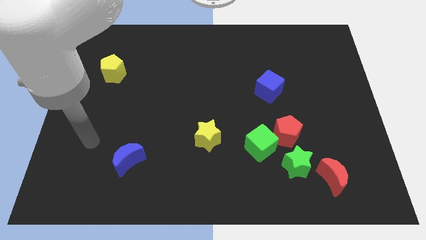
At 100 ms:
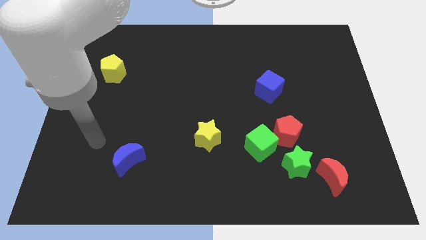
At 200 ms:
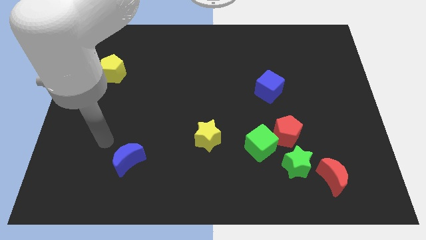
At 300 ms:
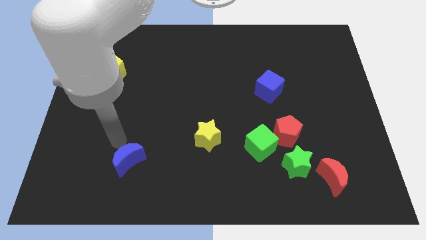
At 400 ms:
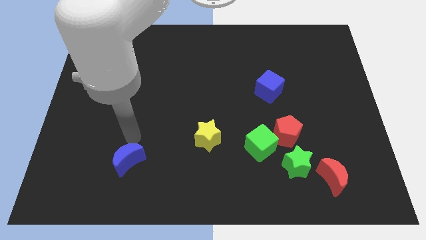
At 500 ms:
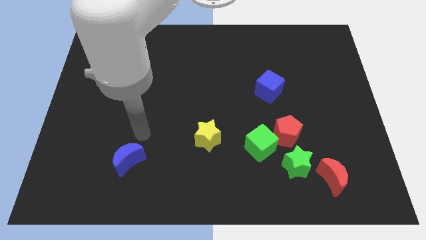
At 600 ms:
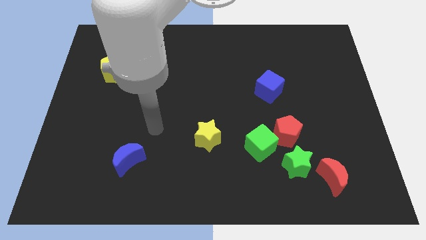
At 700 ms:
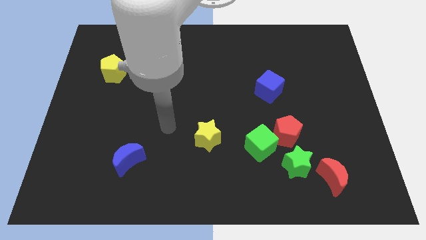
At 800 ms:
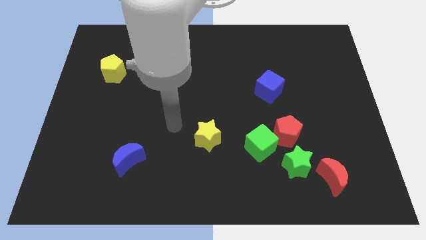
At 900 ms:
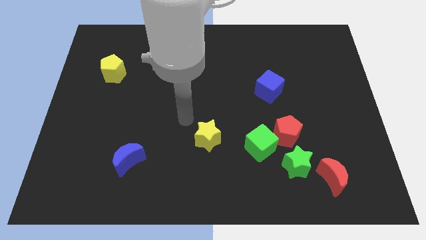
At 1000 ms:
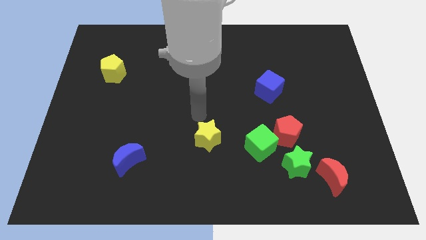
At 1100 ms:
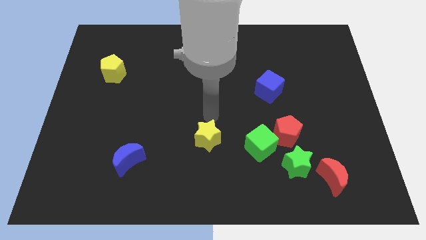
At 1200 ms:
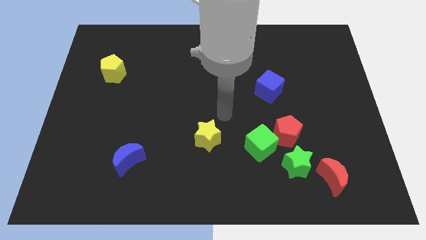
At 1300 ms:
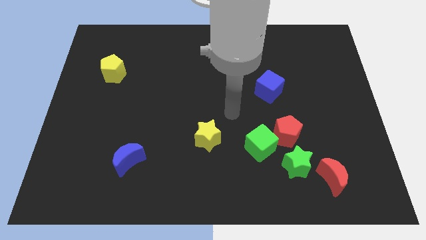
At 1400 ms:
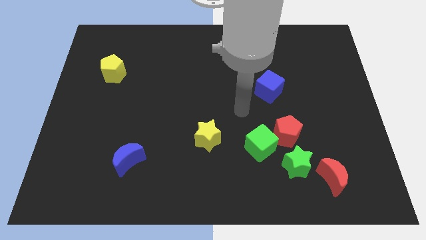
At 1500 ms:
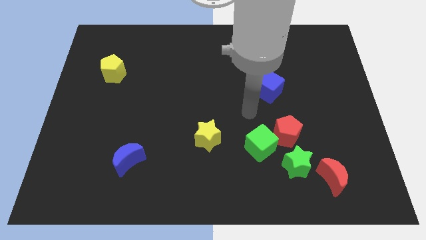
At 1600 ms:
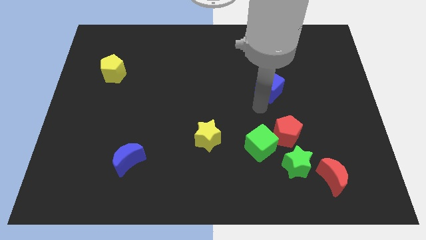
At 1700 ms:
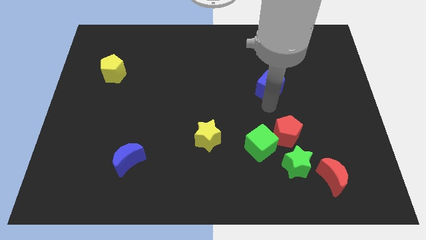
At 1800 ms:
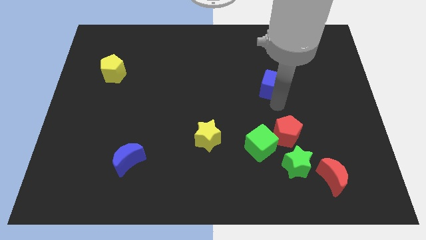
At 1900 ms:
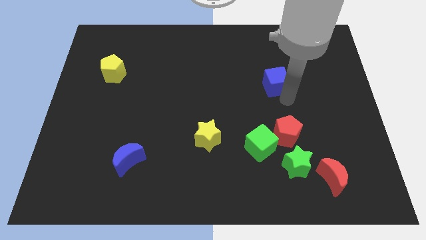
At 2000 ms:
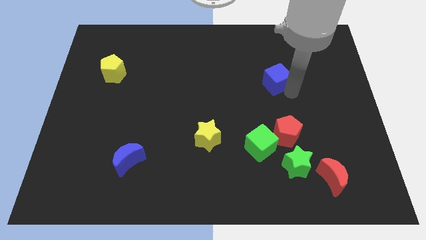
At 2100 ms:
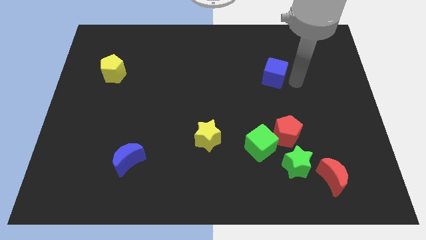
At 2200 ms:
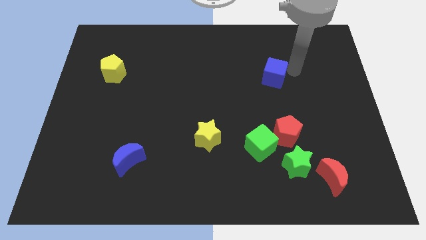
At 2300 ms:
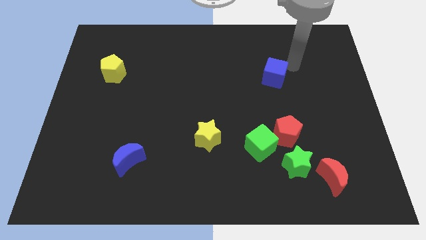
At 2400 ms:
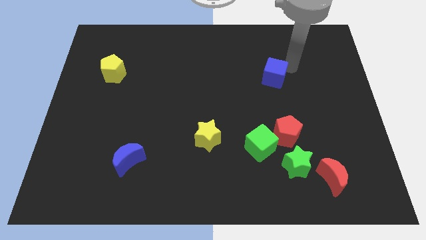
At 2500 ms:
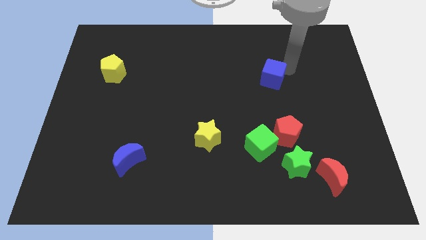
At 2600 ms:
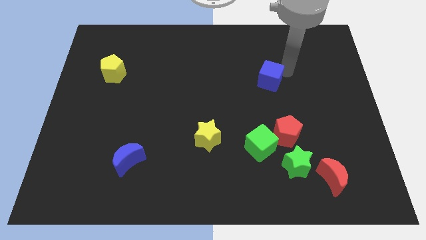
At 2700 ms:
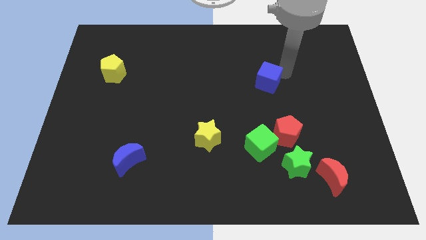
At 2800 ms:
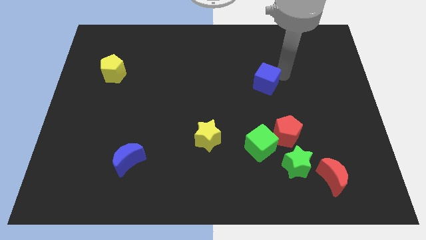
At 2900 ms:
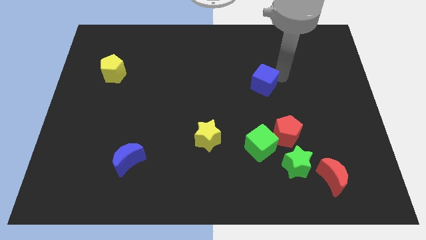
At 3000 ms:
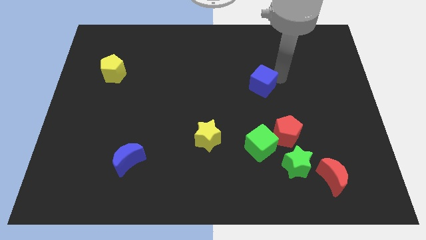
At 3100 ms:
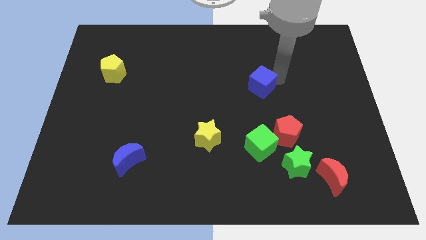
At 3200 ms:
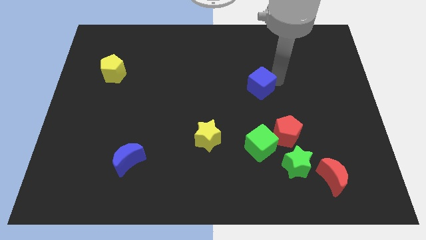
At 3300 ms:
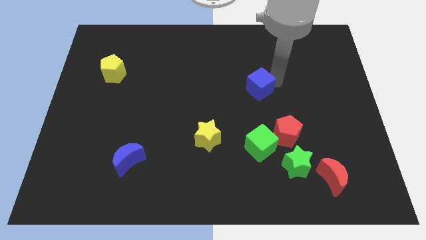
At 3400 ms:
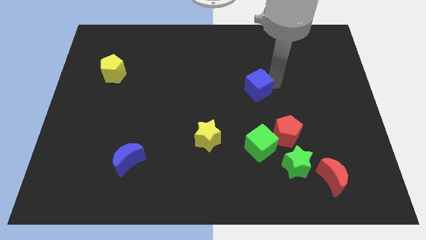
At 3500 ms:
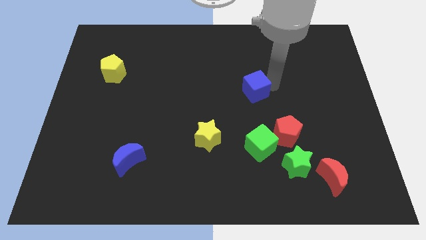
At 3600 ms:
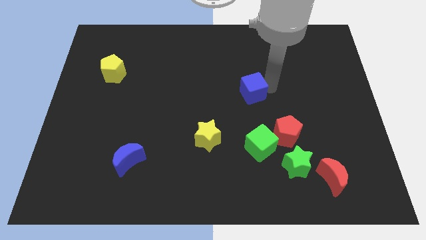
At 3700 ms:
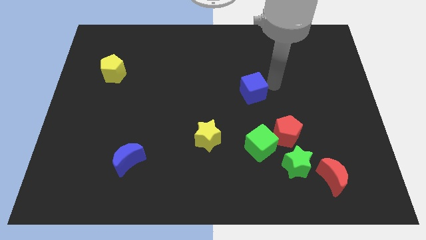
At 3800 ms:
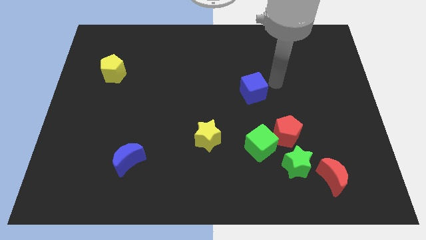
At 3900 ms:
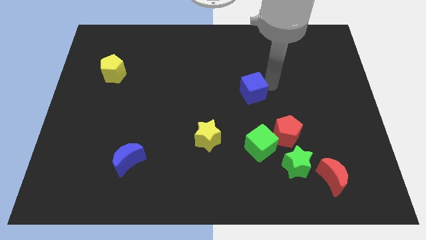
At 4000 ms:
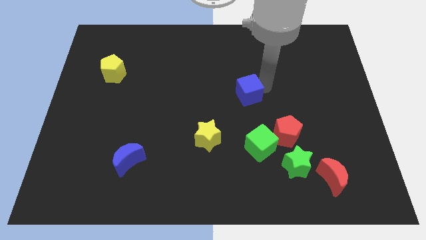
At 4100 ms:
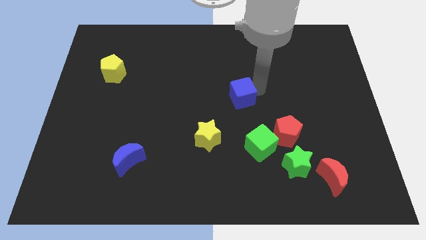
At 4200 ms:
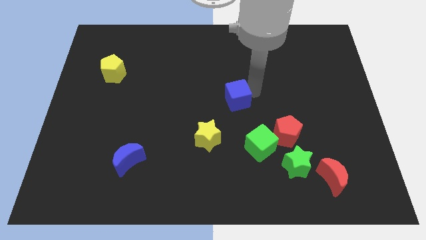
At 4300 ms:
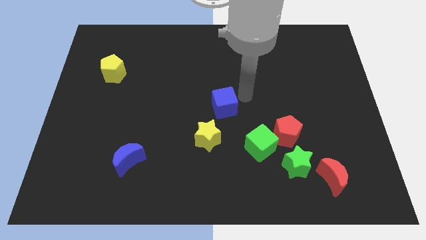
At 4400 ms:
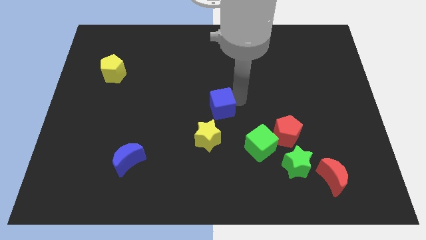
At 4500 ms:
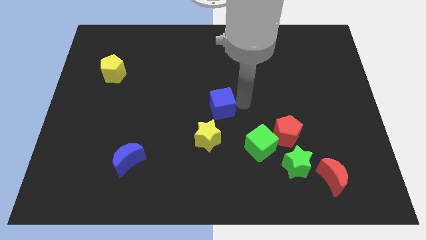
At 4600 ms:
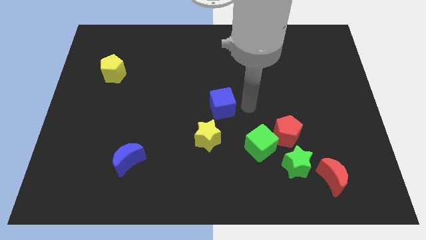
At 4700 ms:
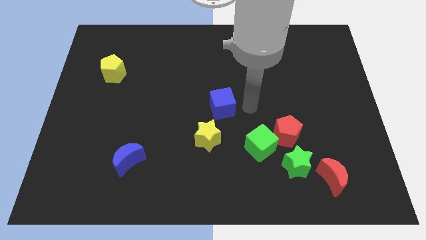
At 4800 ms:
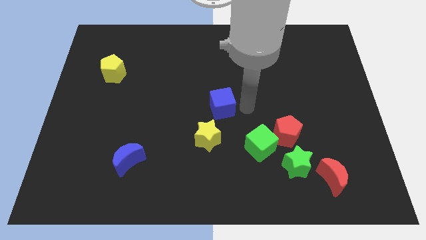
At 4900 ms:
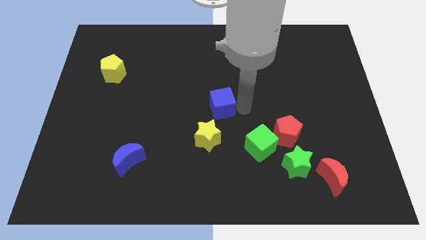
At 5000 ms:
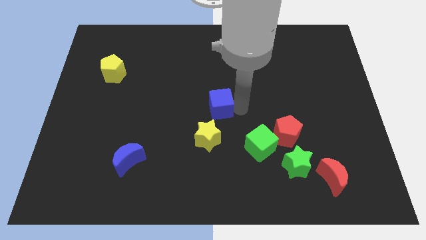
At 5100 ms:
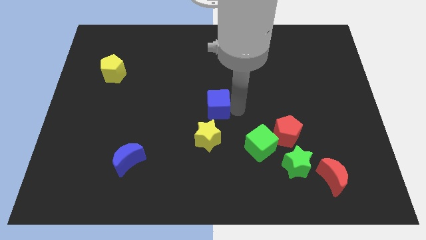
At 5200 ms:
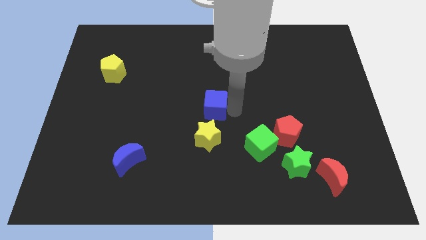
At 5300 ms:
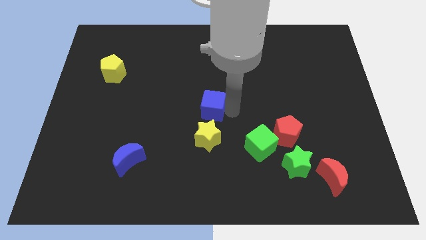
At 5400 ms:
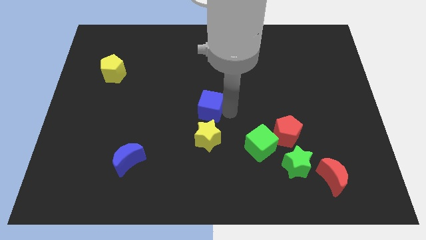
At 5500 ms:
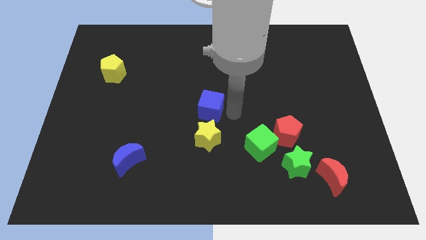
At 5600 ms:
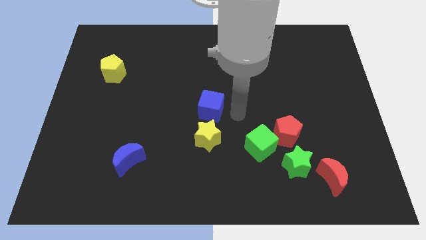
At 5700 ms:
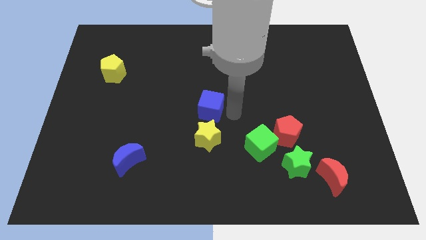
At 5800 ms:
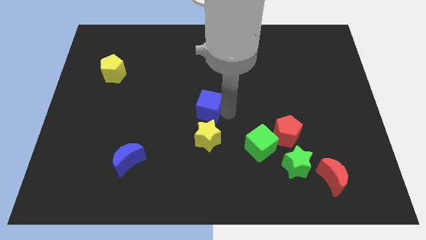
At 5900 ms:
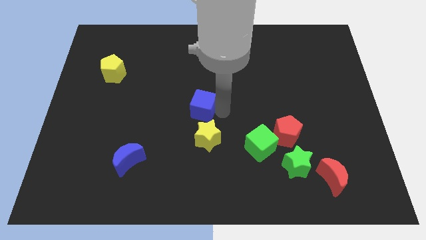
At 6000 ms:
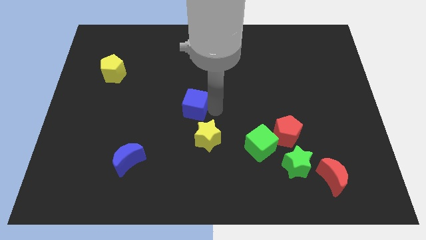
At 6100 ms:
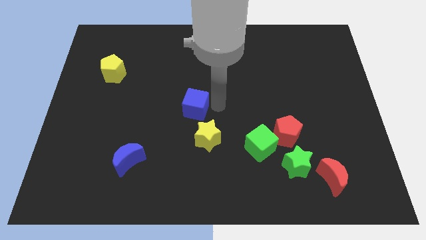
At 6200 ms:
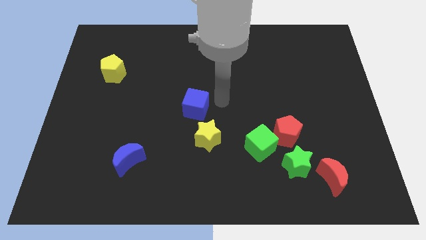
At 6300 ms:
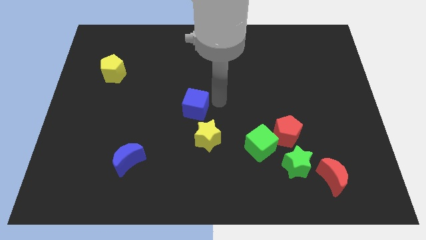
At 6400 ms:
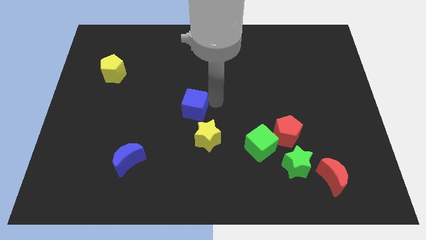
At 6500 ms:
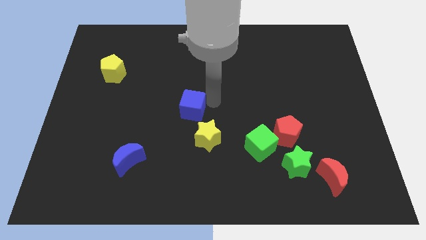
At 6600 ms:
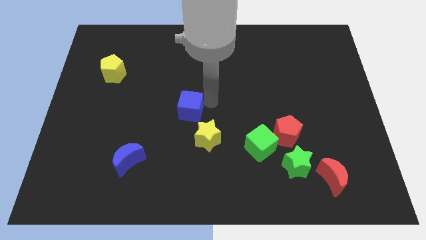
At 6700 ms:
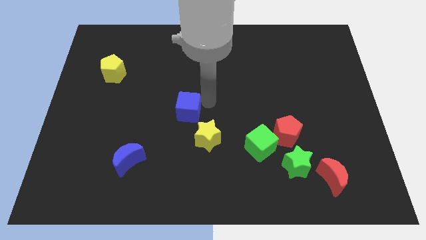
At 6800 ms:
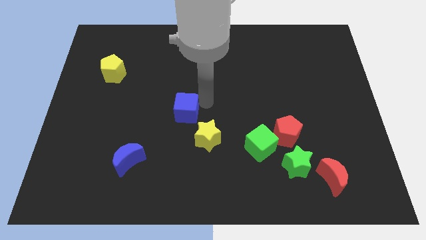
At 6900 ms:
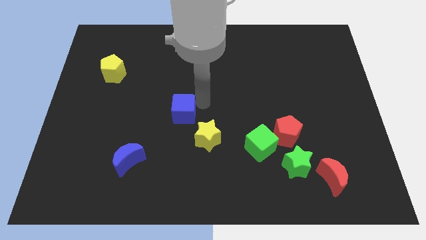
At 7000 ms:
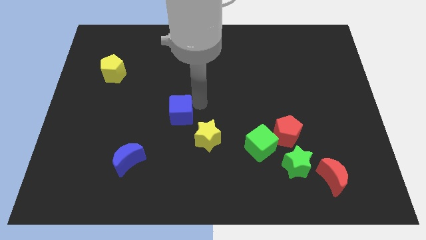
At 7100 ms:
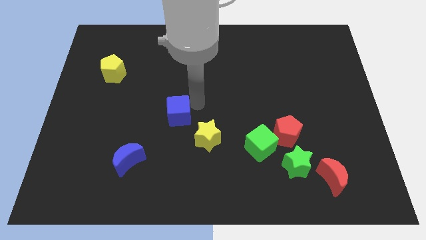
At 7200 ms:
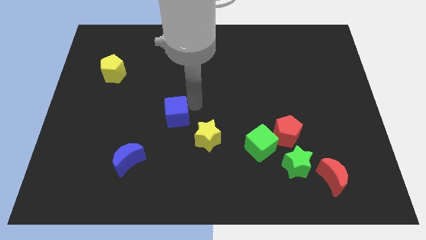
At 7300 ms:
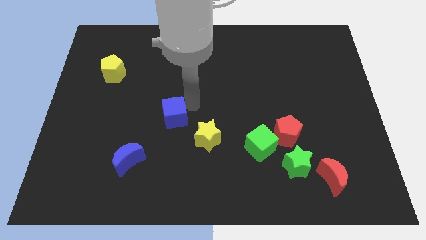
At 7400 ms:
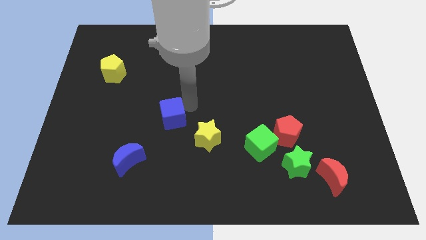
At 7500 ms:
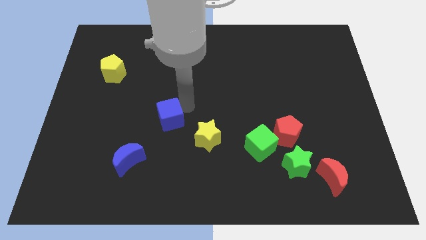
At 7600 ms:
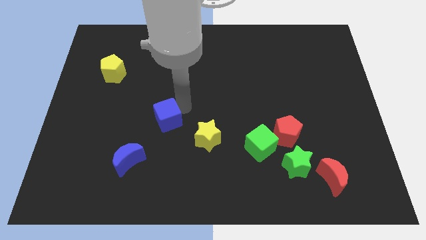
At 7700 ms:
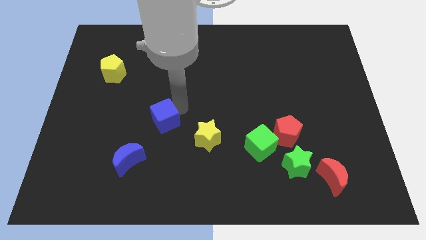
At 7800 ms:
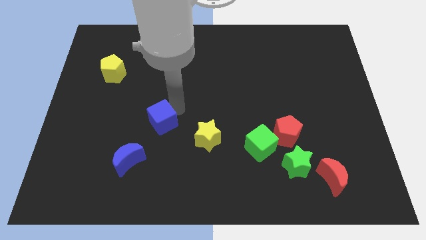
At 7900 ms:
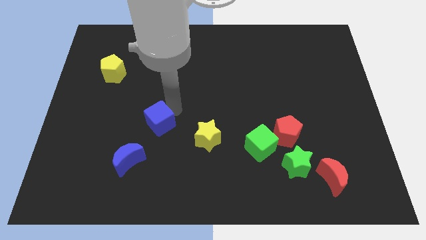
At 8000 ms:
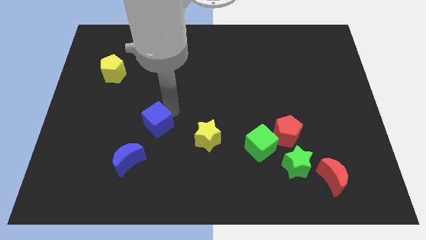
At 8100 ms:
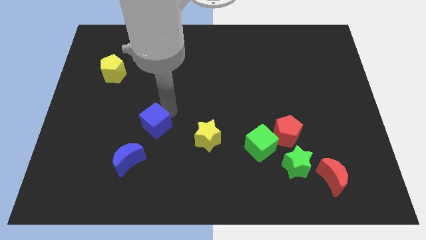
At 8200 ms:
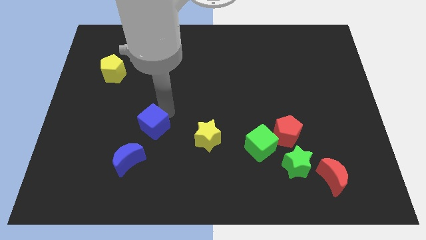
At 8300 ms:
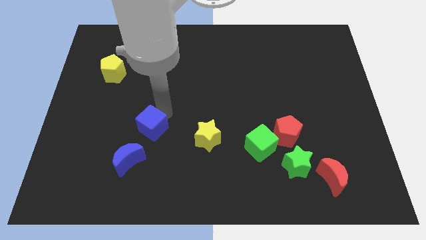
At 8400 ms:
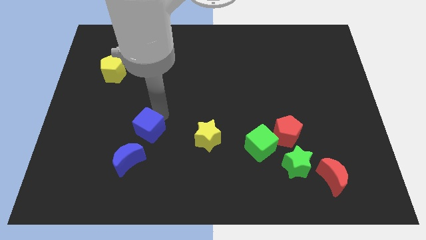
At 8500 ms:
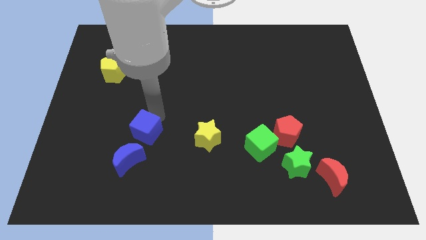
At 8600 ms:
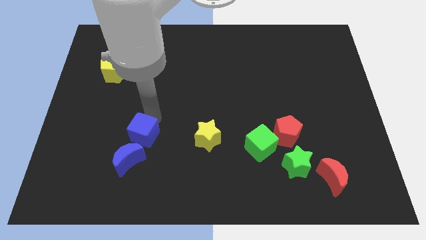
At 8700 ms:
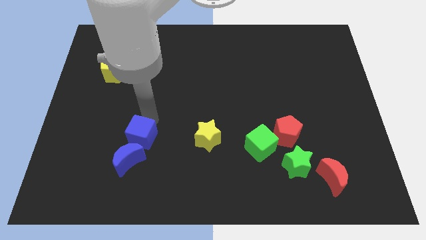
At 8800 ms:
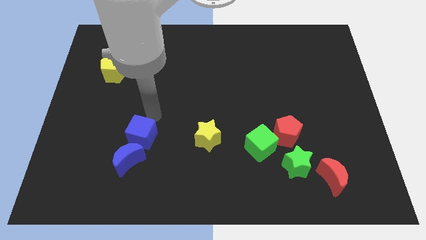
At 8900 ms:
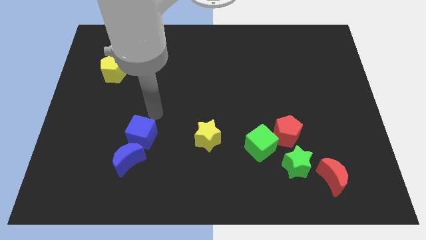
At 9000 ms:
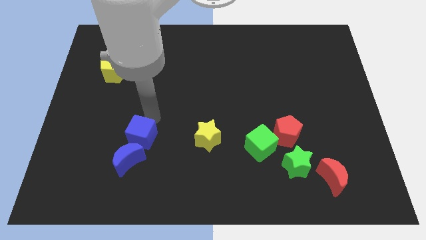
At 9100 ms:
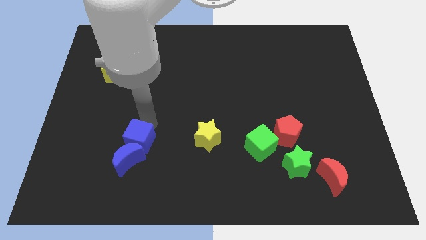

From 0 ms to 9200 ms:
put the blue cube towards the blue moon
